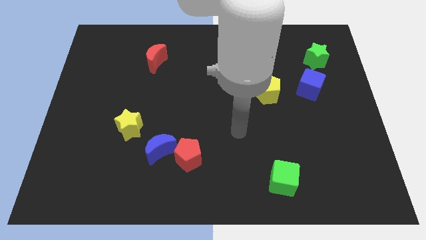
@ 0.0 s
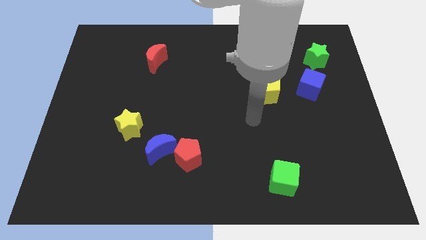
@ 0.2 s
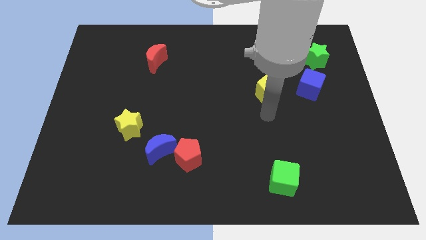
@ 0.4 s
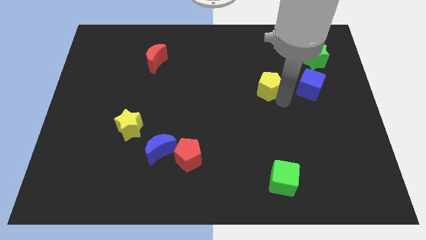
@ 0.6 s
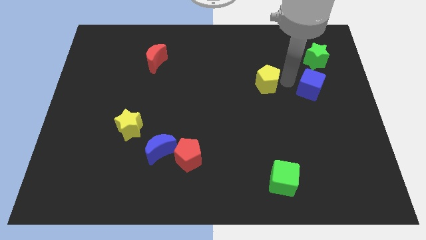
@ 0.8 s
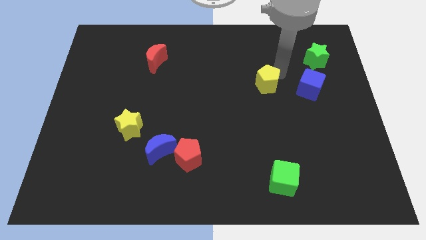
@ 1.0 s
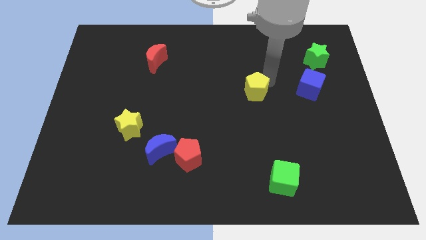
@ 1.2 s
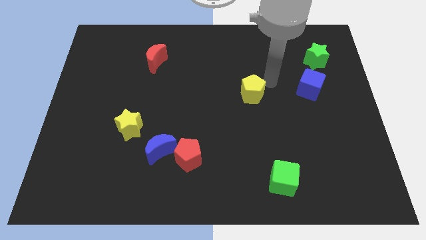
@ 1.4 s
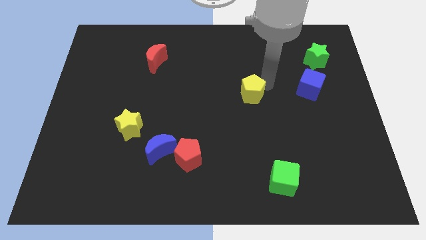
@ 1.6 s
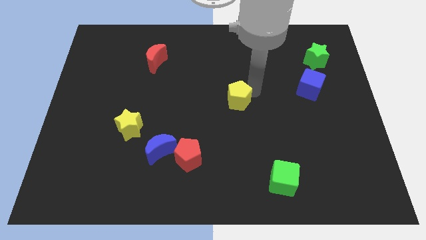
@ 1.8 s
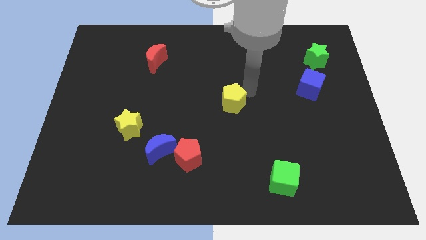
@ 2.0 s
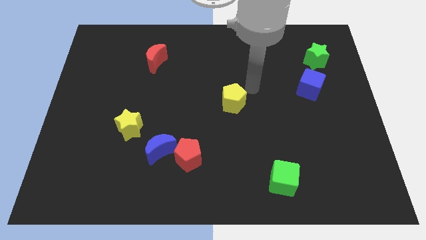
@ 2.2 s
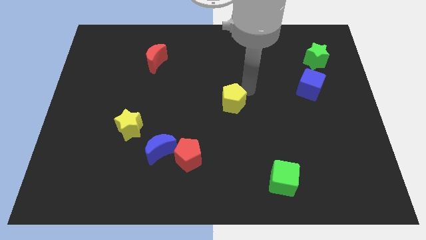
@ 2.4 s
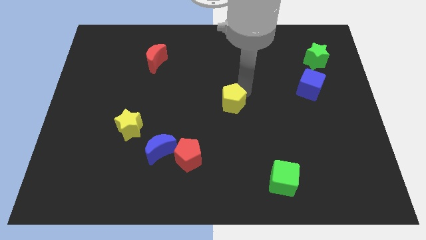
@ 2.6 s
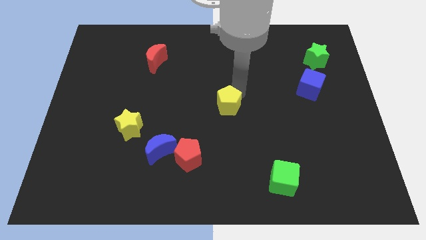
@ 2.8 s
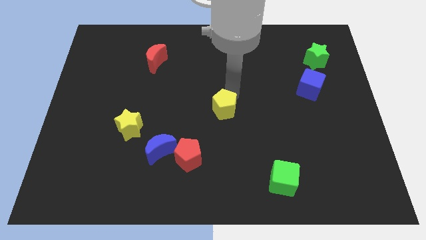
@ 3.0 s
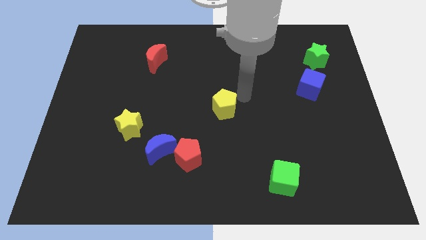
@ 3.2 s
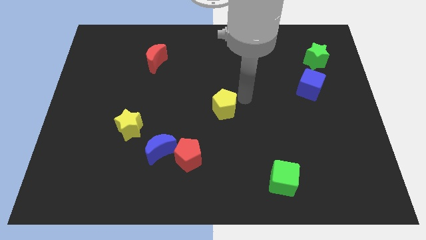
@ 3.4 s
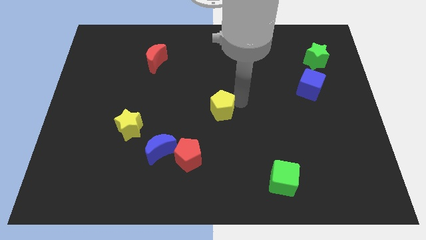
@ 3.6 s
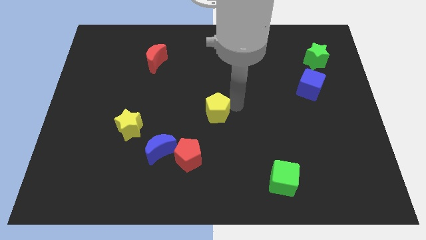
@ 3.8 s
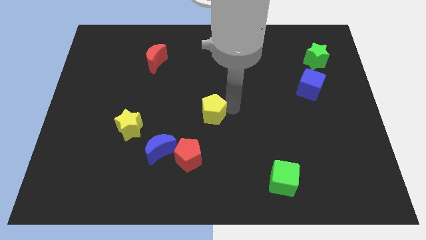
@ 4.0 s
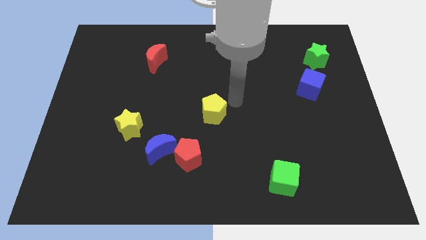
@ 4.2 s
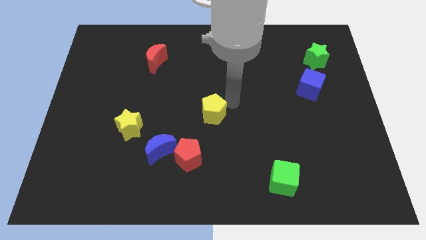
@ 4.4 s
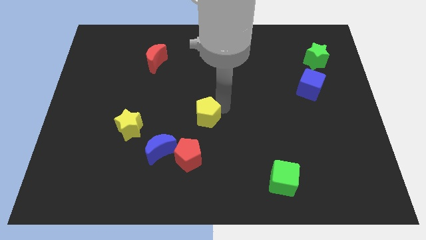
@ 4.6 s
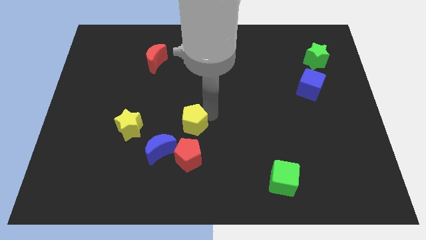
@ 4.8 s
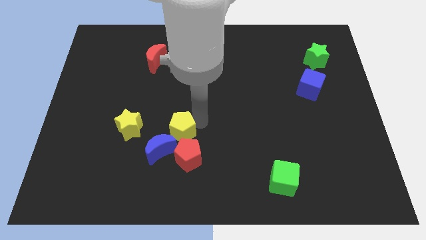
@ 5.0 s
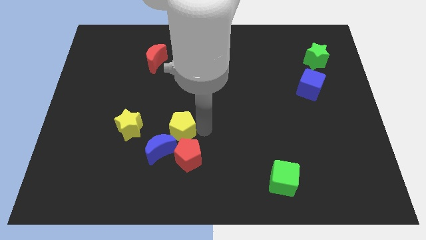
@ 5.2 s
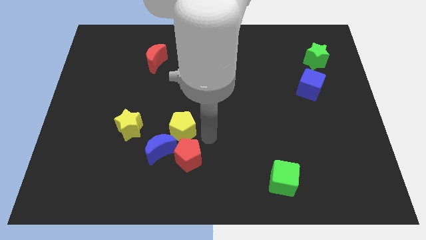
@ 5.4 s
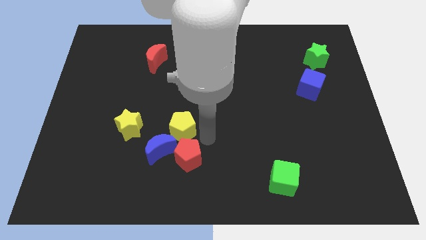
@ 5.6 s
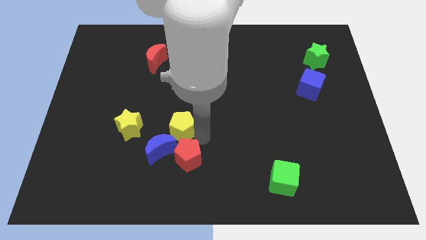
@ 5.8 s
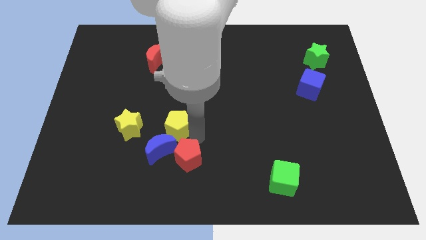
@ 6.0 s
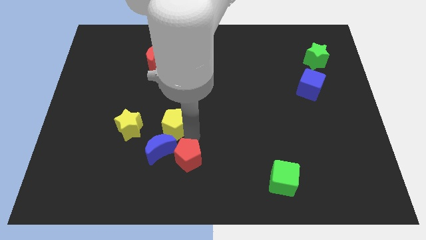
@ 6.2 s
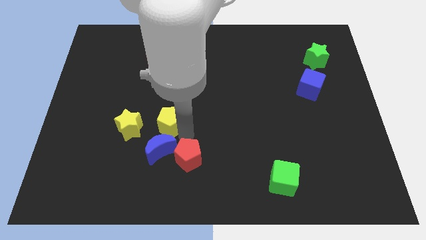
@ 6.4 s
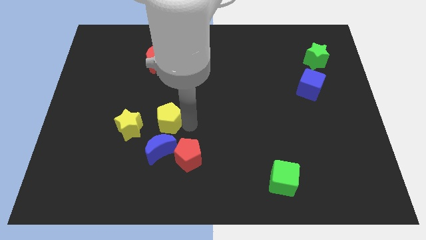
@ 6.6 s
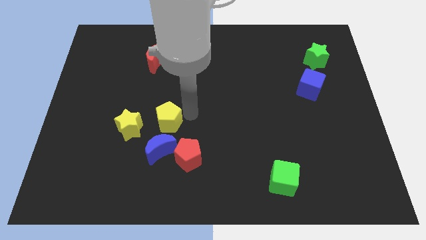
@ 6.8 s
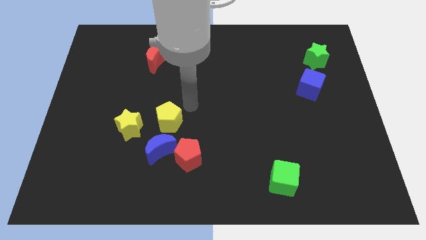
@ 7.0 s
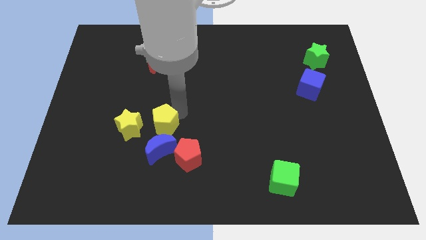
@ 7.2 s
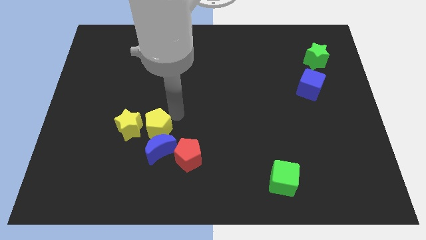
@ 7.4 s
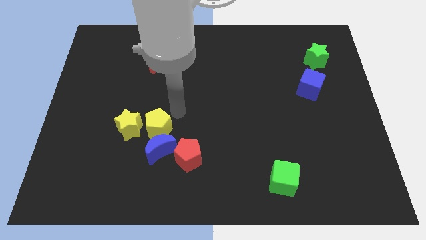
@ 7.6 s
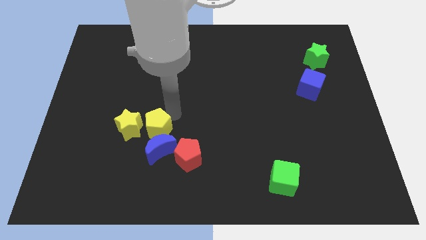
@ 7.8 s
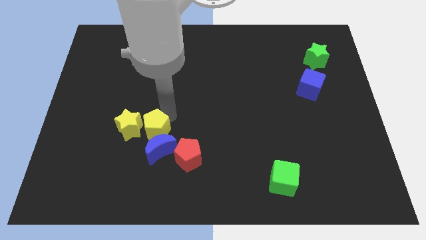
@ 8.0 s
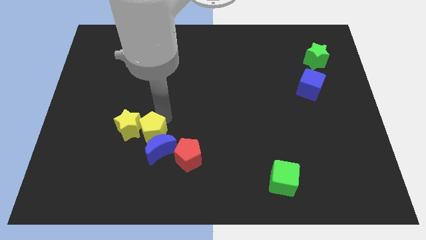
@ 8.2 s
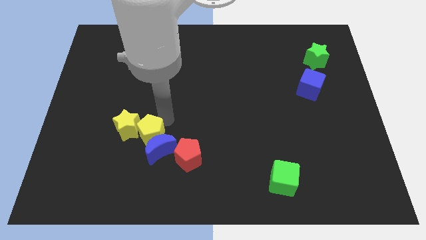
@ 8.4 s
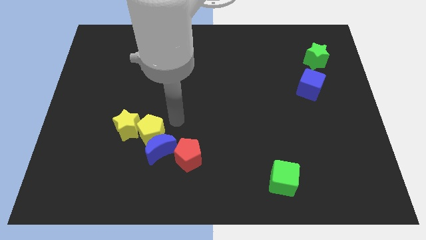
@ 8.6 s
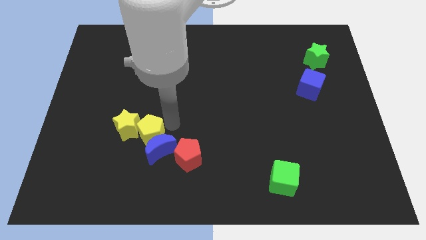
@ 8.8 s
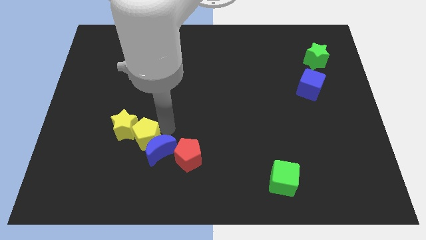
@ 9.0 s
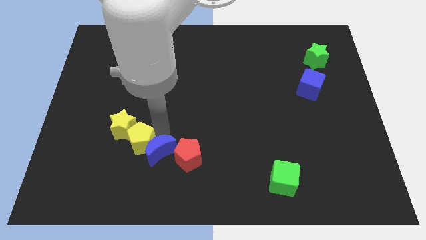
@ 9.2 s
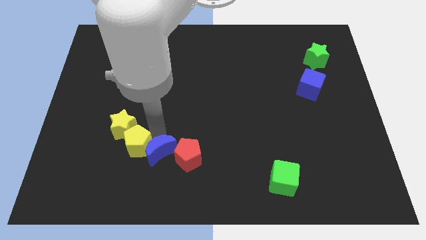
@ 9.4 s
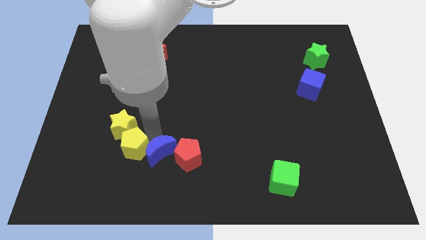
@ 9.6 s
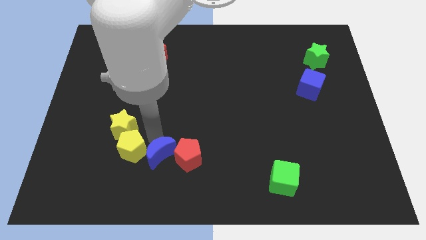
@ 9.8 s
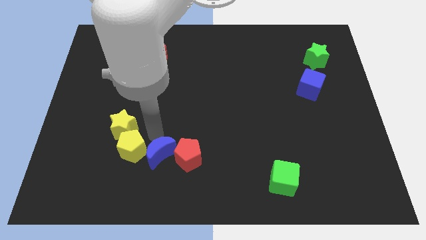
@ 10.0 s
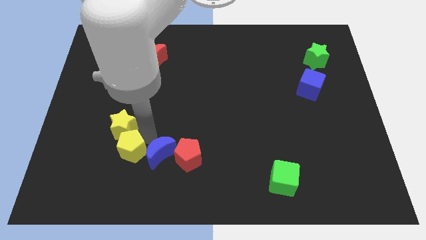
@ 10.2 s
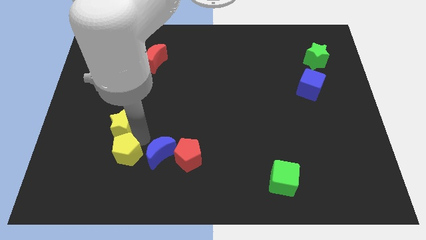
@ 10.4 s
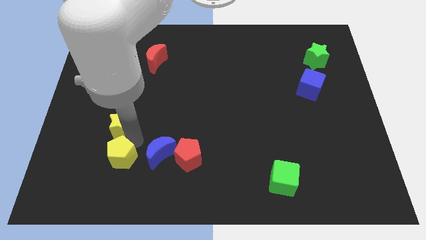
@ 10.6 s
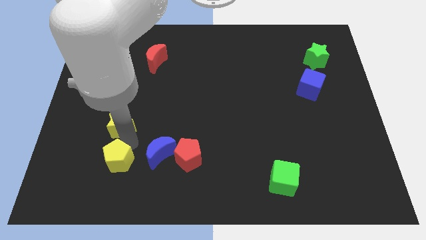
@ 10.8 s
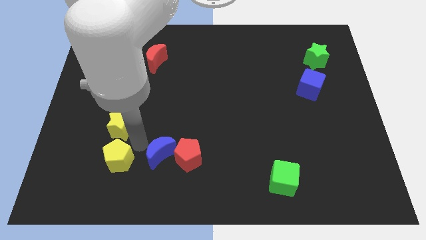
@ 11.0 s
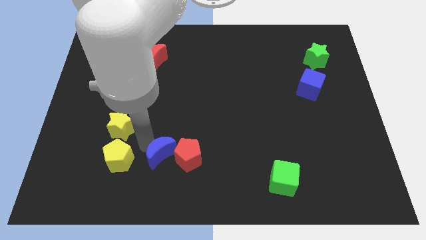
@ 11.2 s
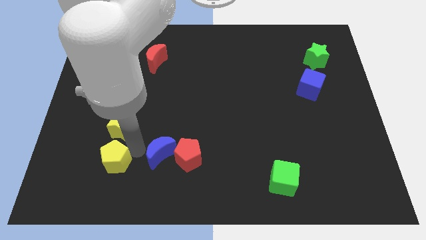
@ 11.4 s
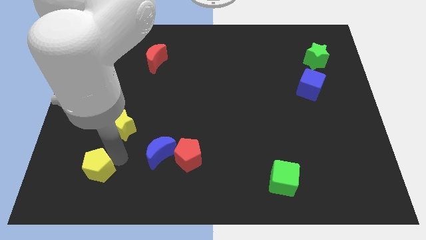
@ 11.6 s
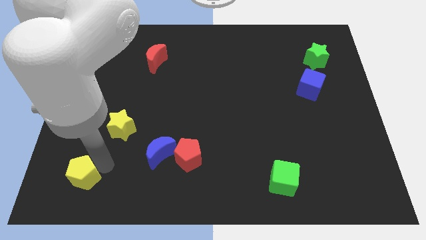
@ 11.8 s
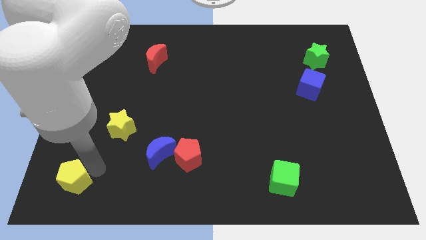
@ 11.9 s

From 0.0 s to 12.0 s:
move the yellow pentagon to the bottom left
